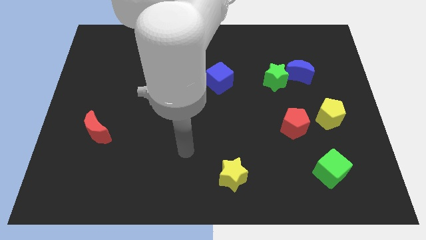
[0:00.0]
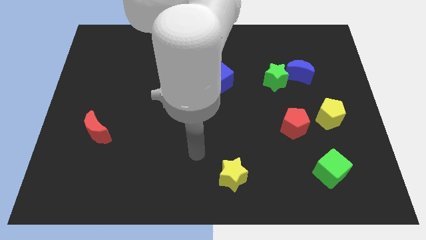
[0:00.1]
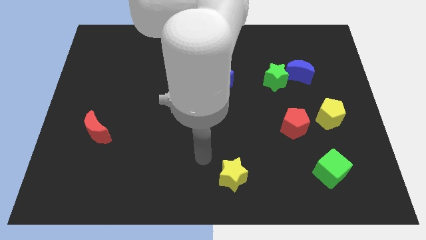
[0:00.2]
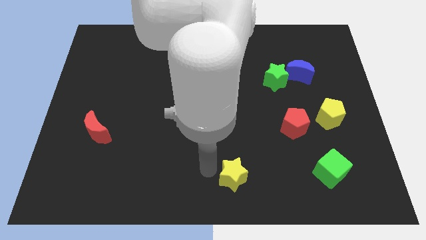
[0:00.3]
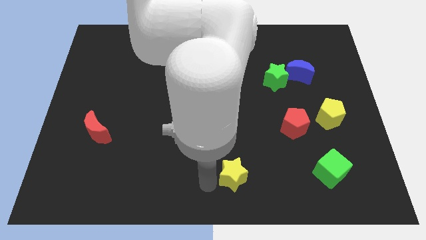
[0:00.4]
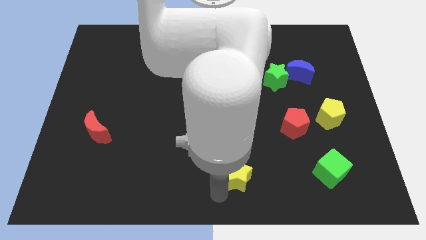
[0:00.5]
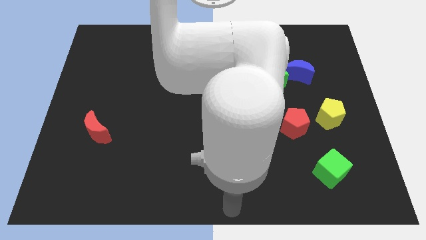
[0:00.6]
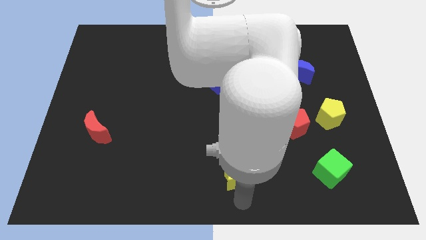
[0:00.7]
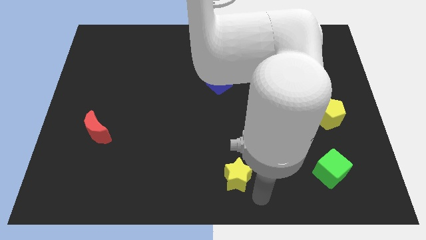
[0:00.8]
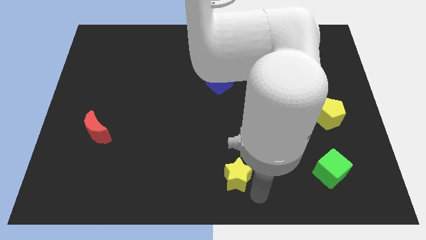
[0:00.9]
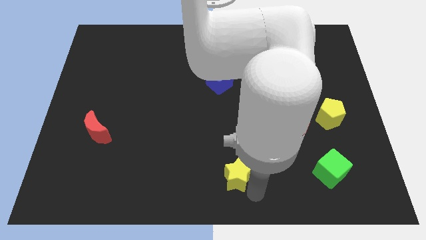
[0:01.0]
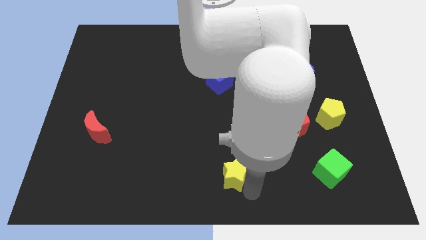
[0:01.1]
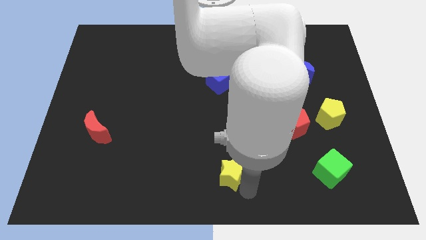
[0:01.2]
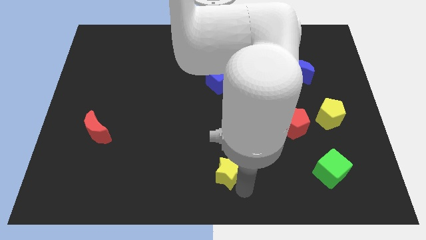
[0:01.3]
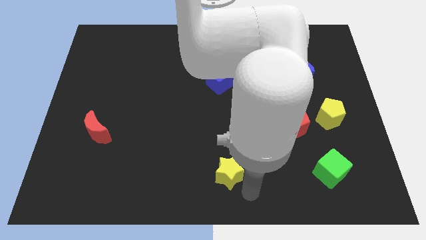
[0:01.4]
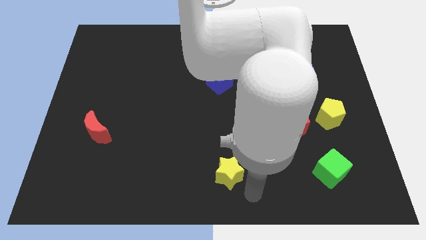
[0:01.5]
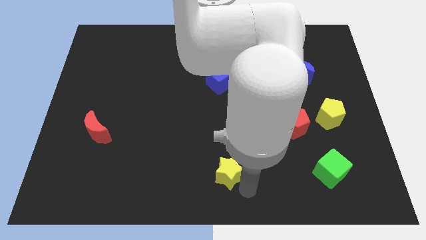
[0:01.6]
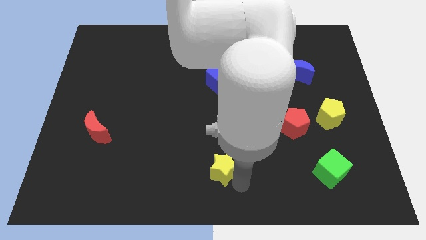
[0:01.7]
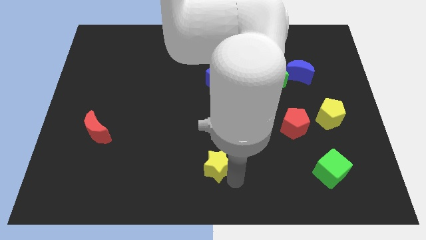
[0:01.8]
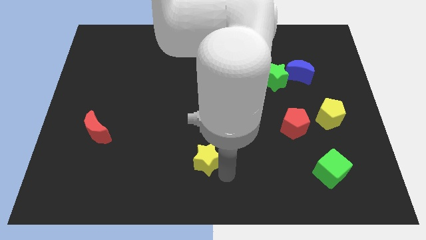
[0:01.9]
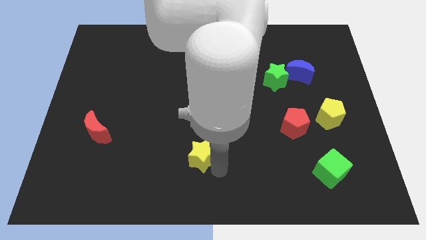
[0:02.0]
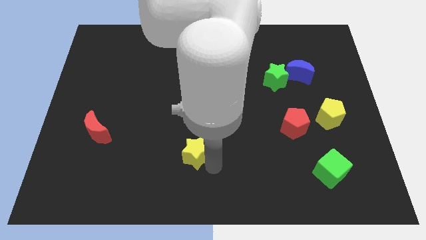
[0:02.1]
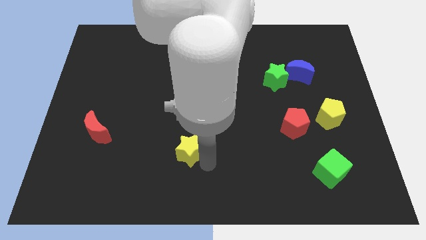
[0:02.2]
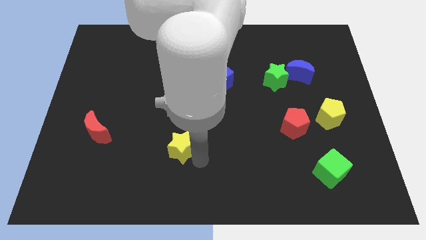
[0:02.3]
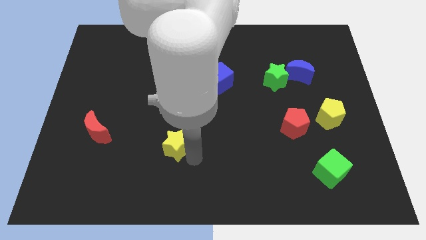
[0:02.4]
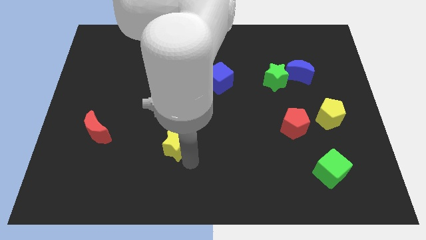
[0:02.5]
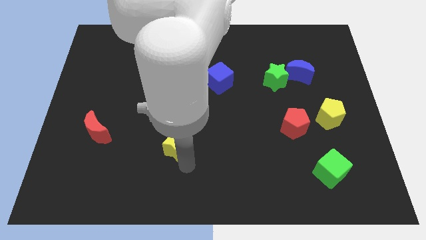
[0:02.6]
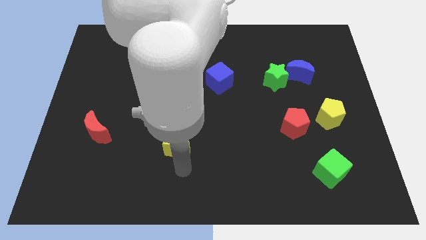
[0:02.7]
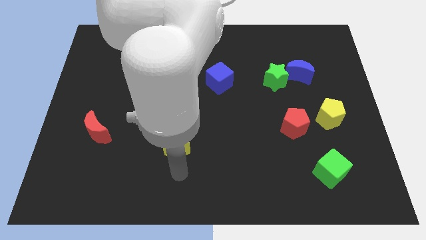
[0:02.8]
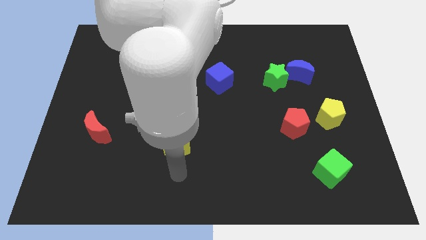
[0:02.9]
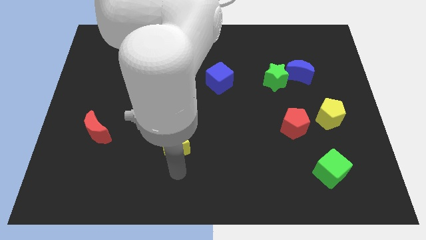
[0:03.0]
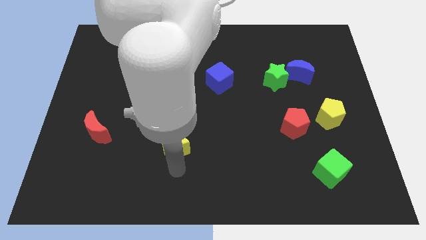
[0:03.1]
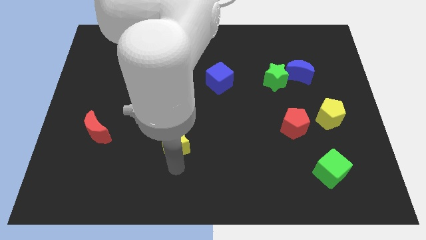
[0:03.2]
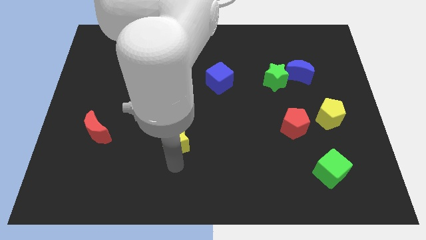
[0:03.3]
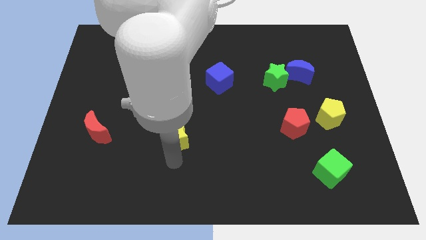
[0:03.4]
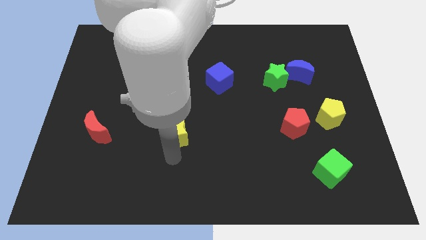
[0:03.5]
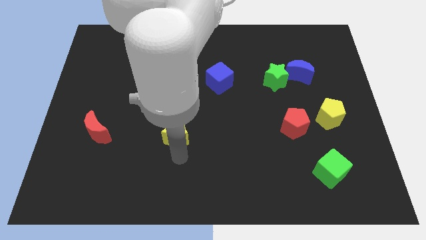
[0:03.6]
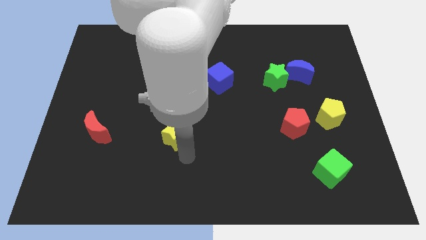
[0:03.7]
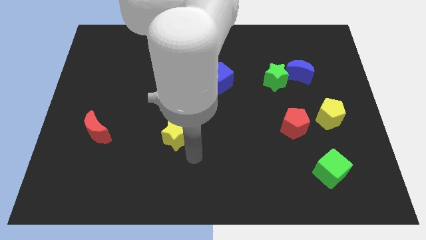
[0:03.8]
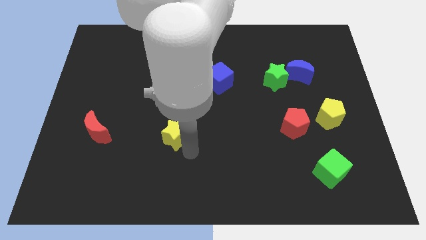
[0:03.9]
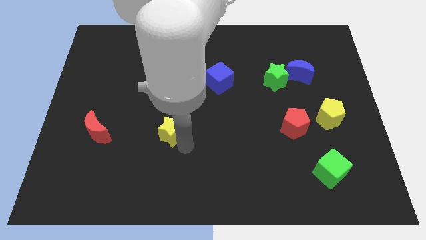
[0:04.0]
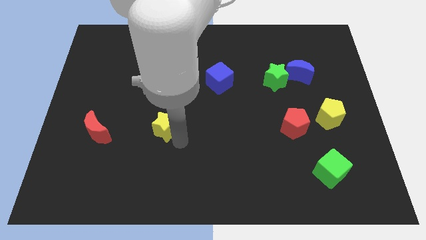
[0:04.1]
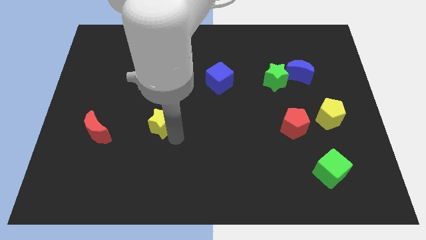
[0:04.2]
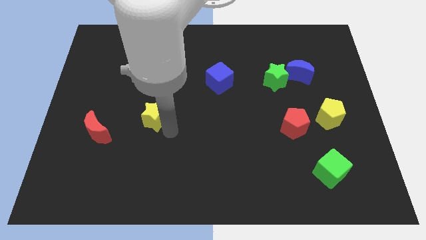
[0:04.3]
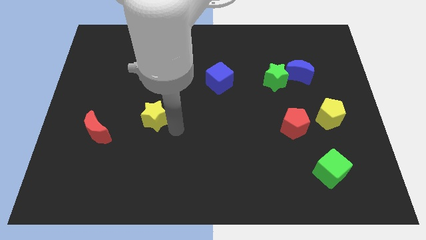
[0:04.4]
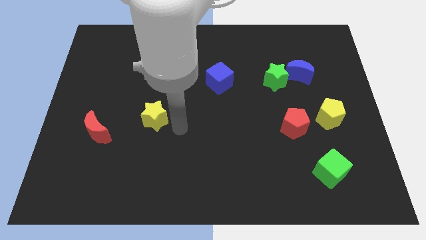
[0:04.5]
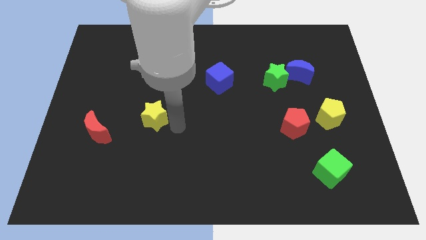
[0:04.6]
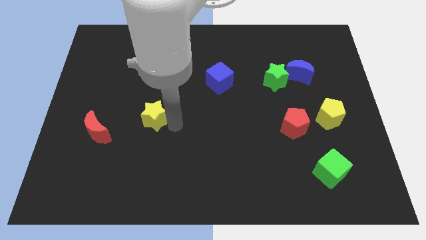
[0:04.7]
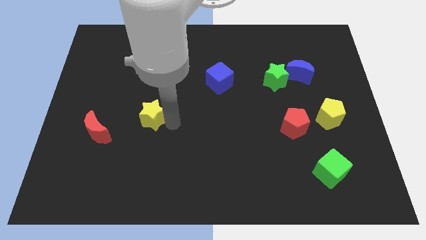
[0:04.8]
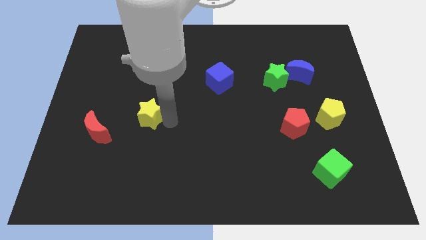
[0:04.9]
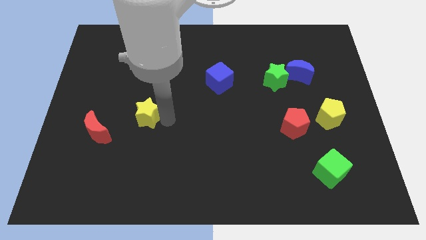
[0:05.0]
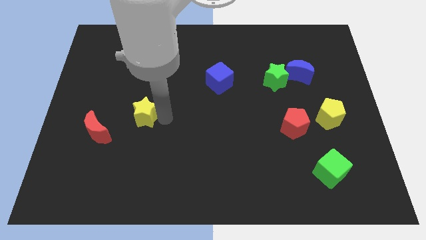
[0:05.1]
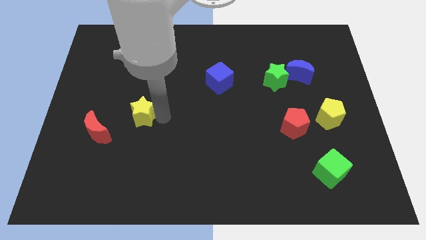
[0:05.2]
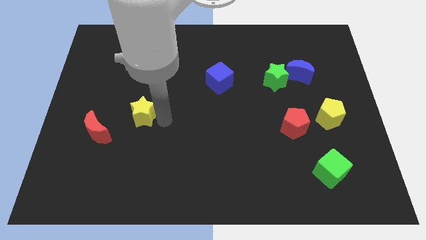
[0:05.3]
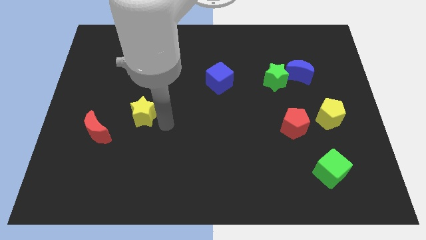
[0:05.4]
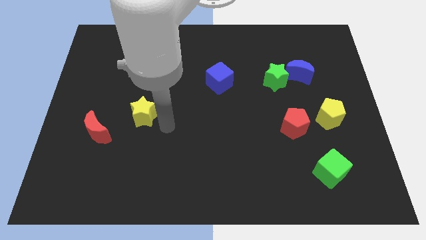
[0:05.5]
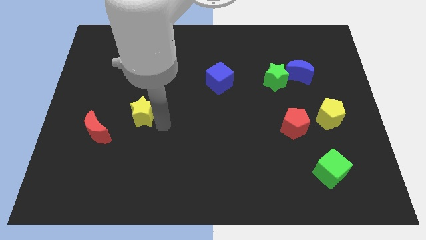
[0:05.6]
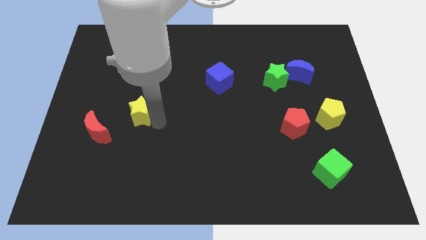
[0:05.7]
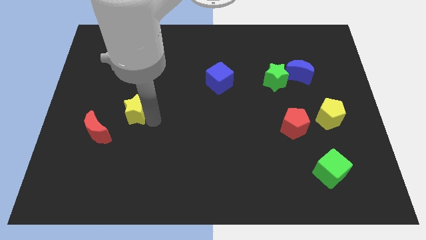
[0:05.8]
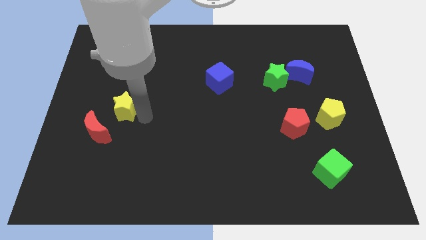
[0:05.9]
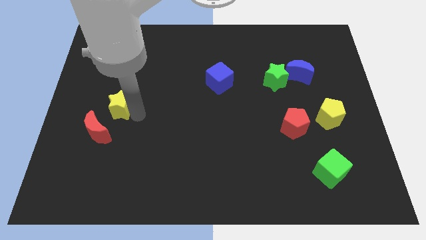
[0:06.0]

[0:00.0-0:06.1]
slide the yellow star above the red moon

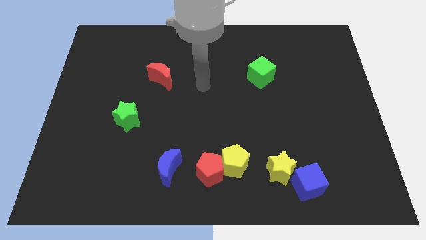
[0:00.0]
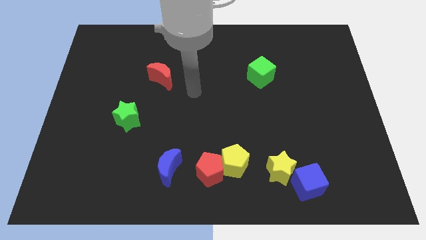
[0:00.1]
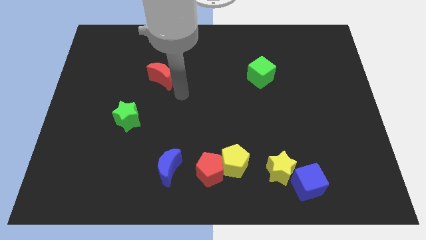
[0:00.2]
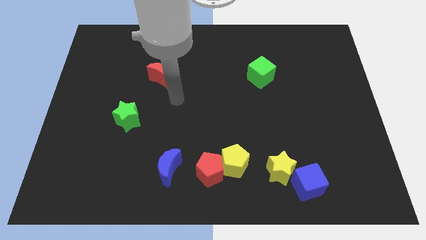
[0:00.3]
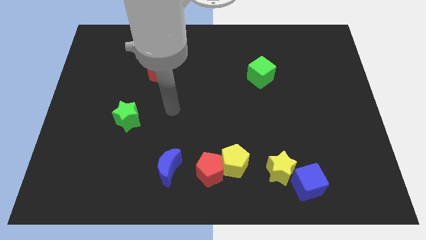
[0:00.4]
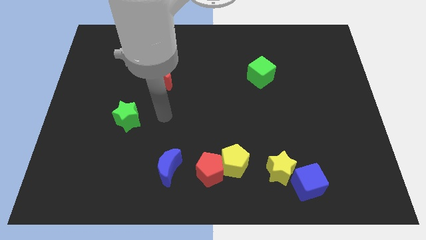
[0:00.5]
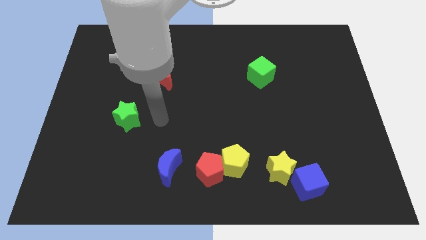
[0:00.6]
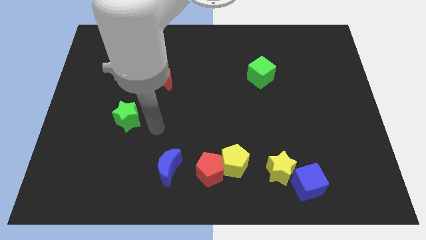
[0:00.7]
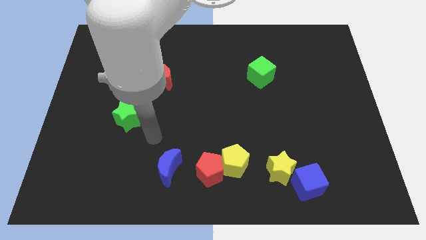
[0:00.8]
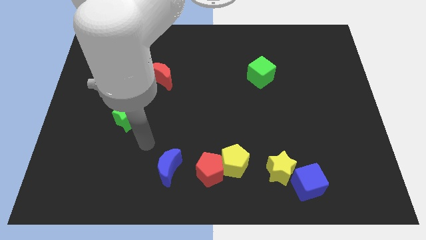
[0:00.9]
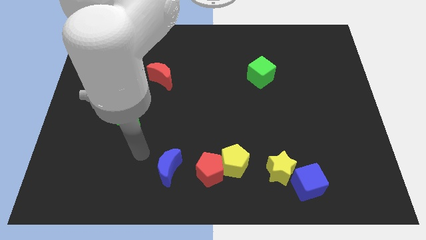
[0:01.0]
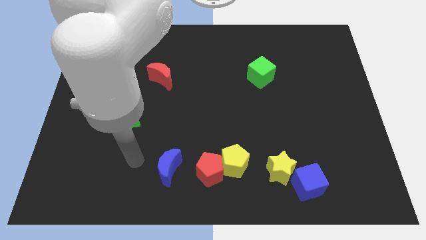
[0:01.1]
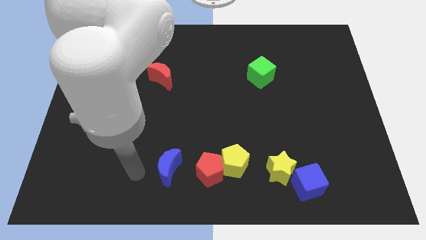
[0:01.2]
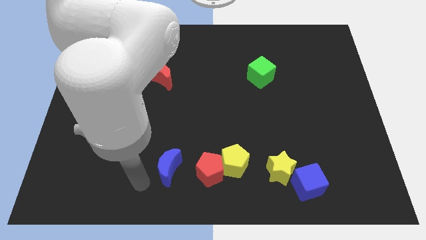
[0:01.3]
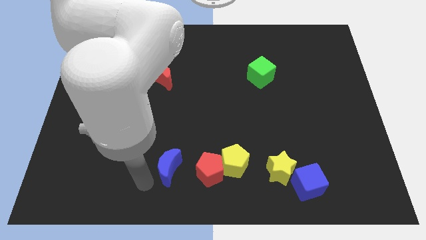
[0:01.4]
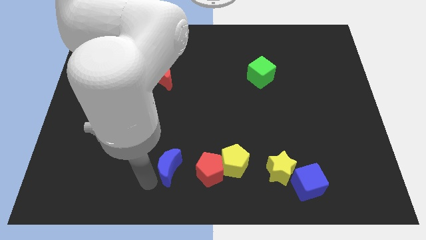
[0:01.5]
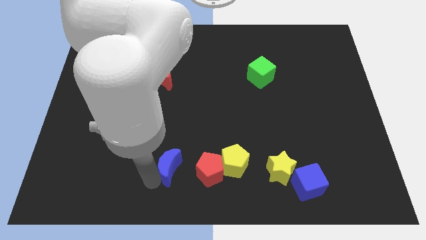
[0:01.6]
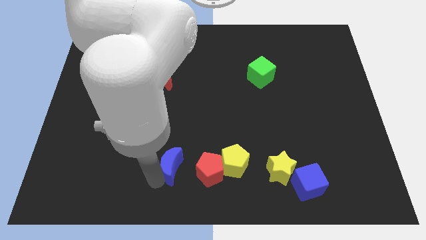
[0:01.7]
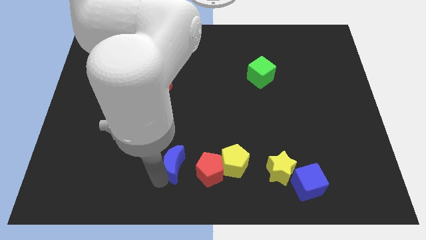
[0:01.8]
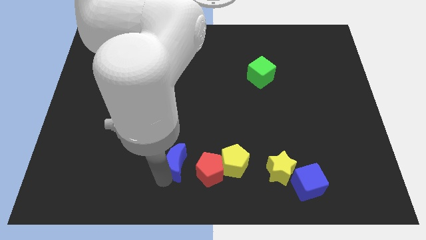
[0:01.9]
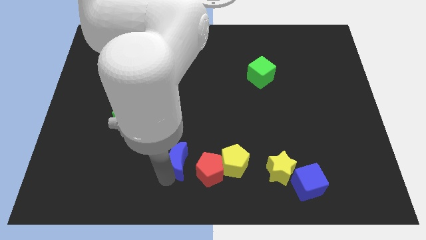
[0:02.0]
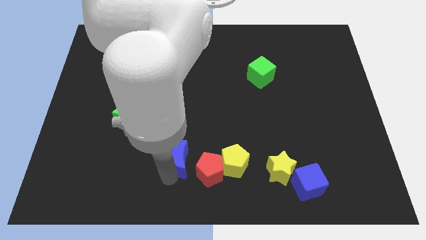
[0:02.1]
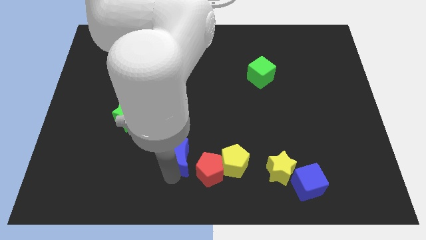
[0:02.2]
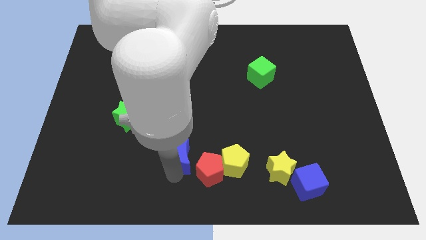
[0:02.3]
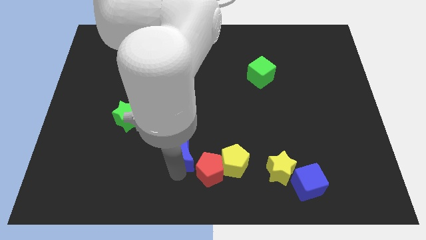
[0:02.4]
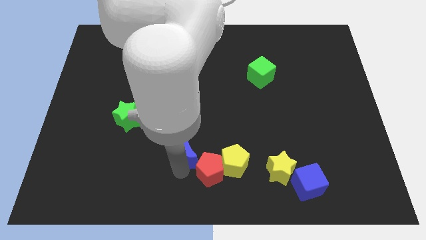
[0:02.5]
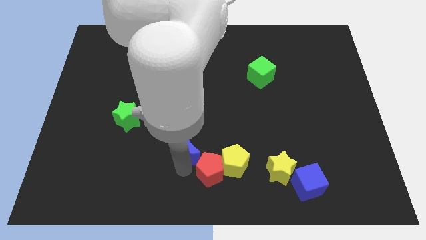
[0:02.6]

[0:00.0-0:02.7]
slide the blue moon to the top left of the yellow pentagon
